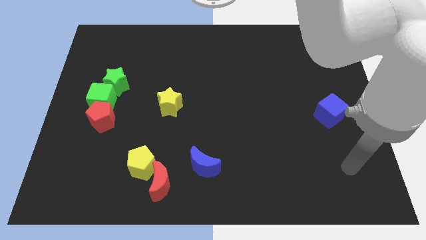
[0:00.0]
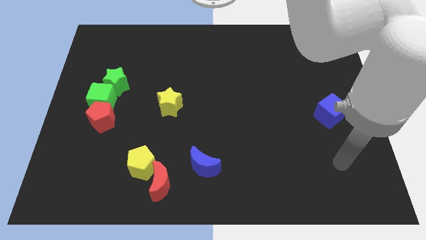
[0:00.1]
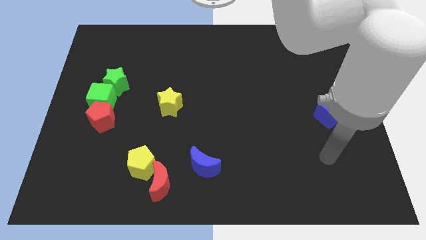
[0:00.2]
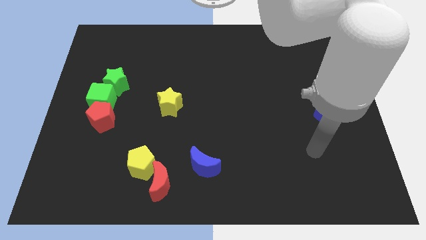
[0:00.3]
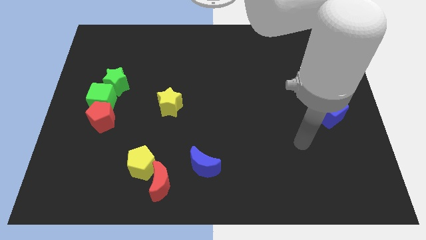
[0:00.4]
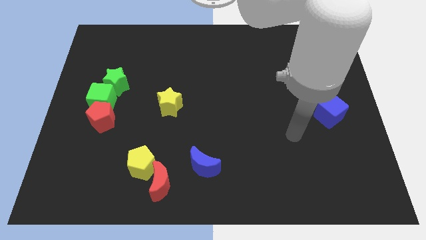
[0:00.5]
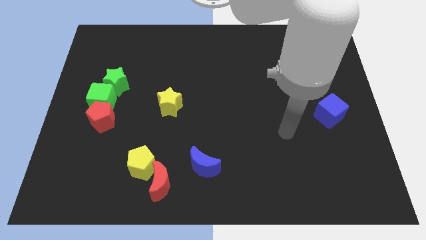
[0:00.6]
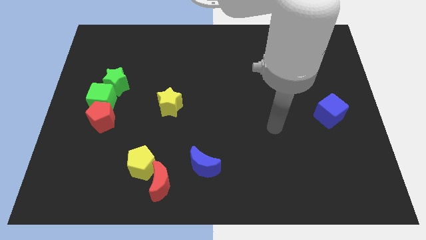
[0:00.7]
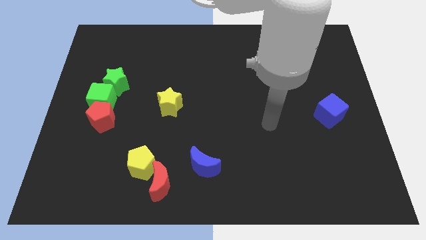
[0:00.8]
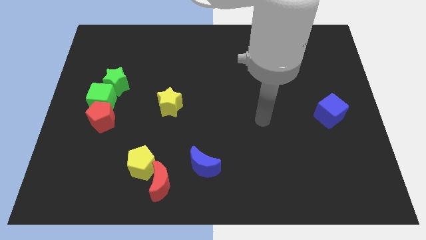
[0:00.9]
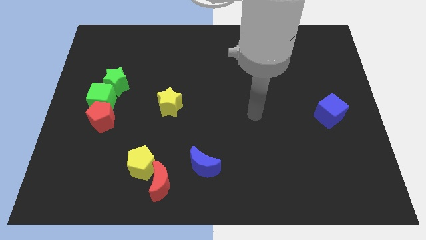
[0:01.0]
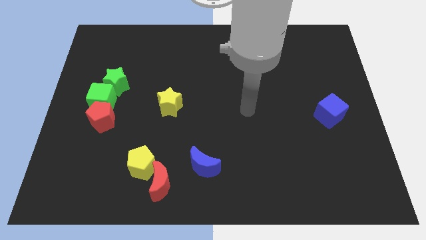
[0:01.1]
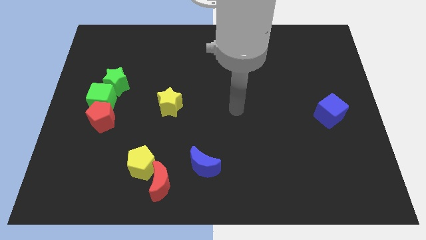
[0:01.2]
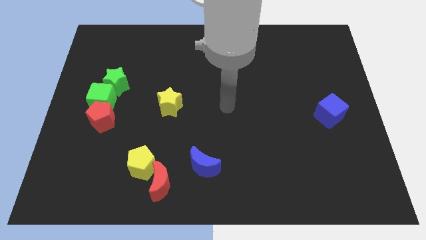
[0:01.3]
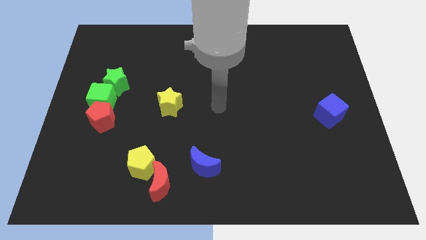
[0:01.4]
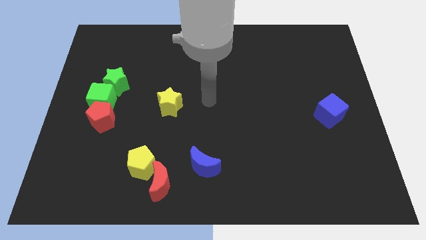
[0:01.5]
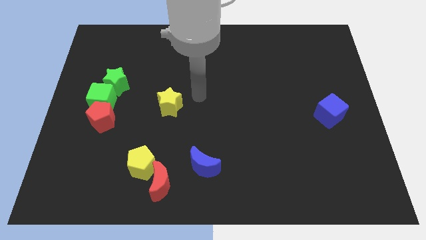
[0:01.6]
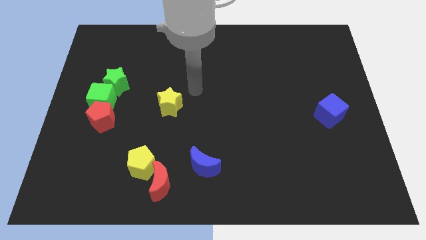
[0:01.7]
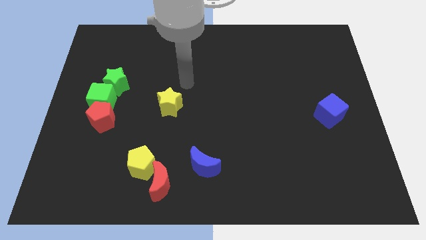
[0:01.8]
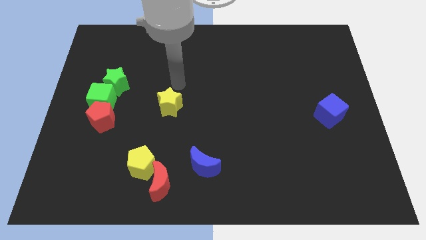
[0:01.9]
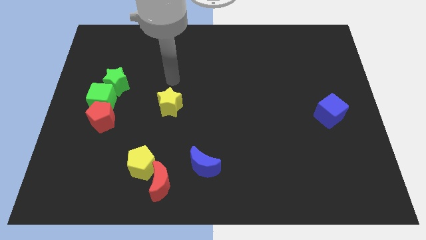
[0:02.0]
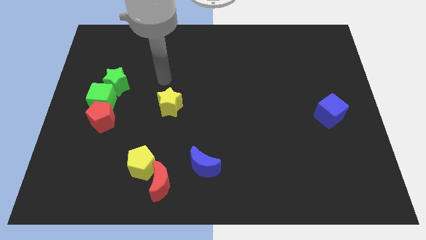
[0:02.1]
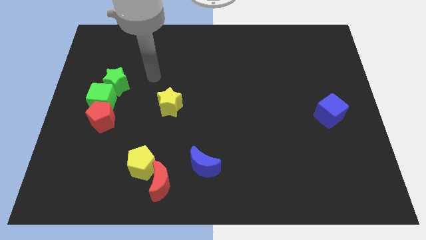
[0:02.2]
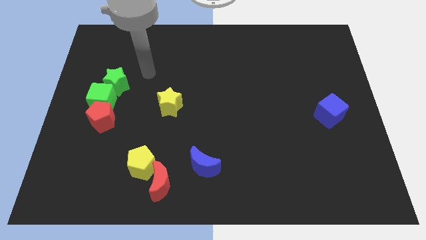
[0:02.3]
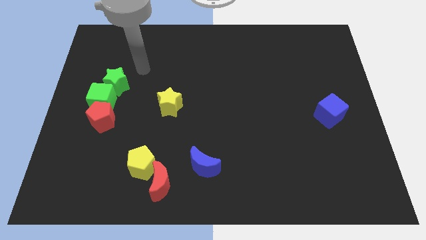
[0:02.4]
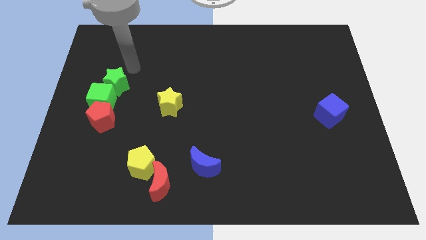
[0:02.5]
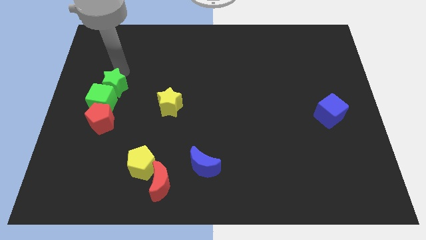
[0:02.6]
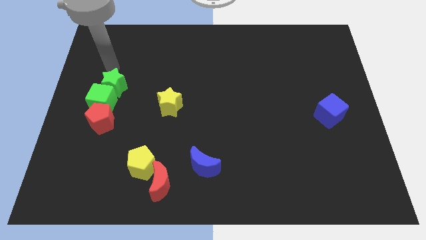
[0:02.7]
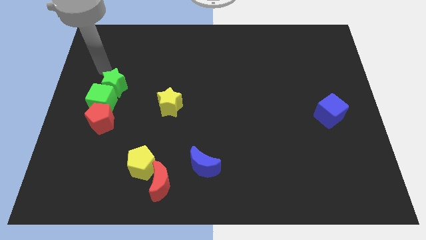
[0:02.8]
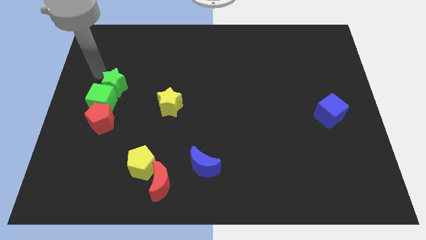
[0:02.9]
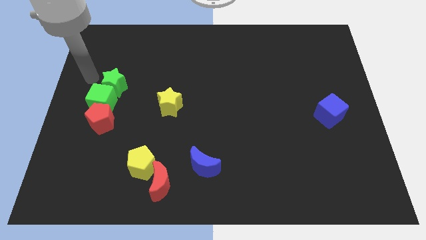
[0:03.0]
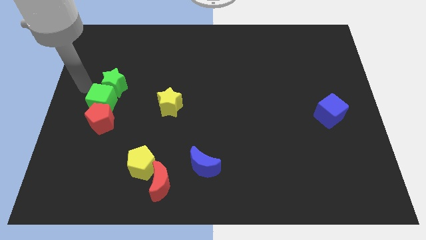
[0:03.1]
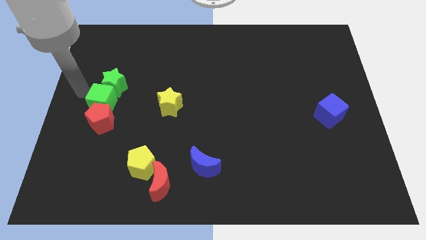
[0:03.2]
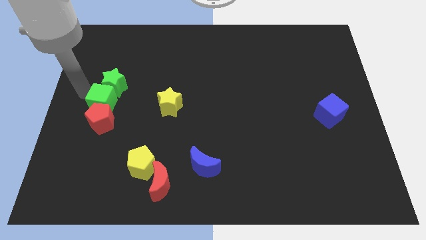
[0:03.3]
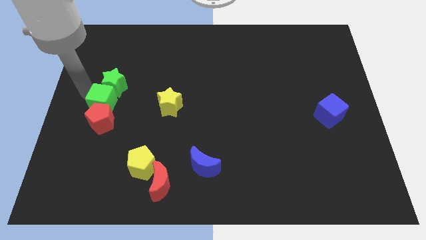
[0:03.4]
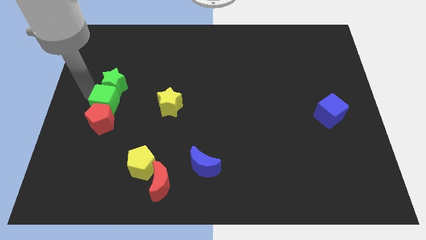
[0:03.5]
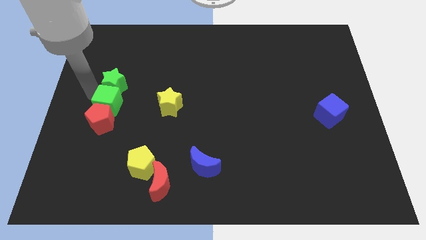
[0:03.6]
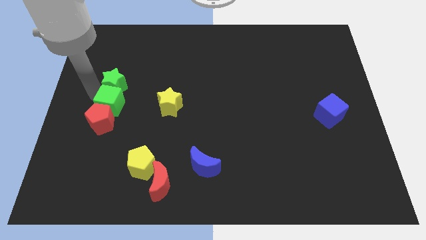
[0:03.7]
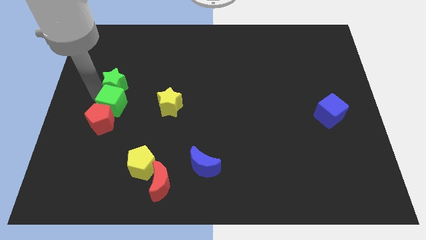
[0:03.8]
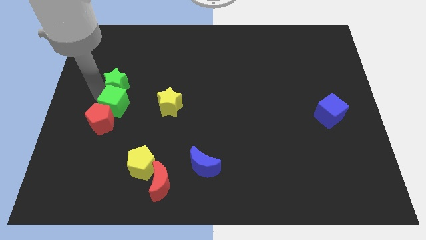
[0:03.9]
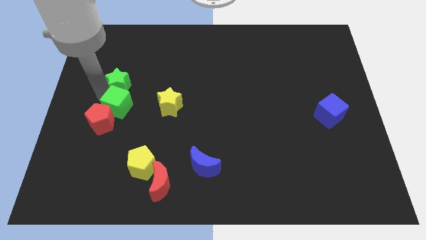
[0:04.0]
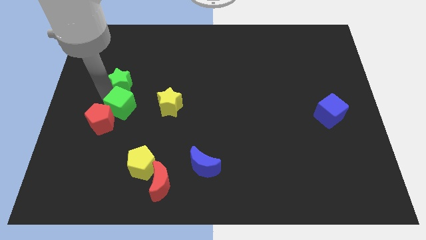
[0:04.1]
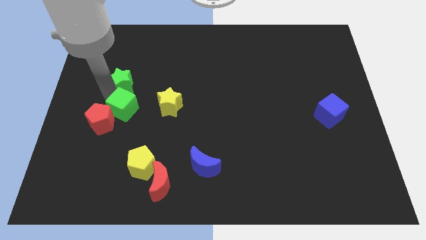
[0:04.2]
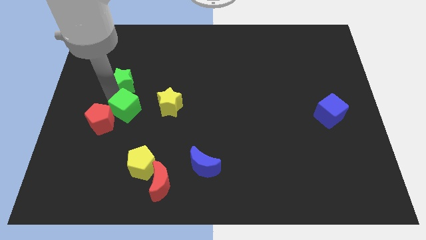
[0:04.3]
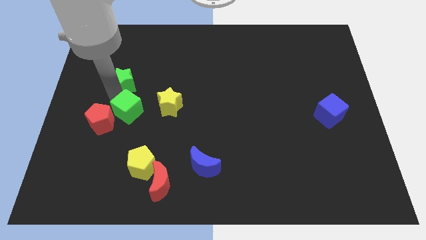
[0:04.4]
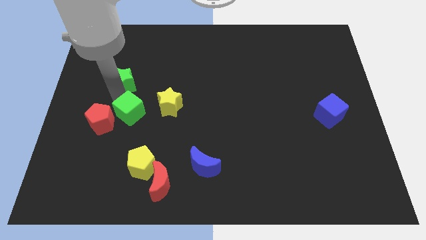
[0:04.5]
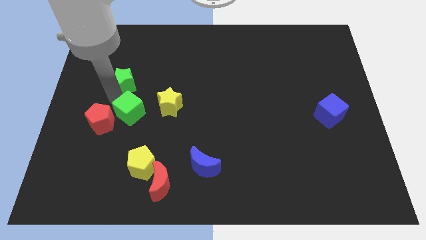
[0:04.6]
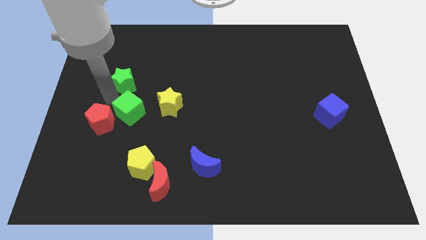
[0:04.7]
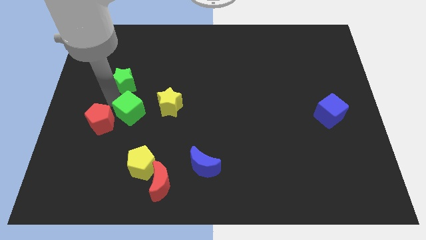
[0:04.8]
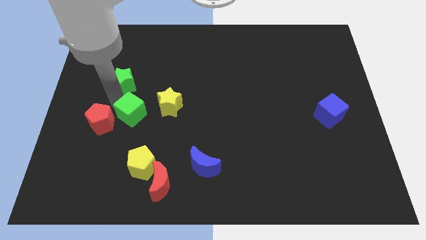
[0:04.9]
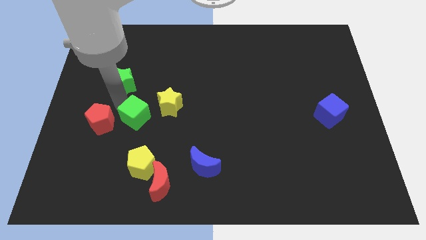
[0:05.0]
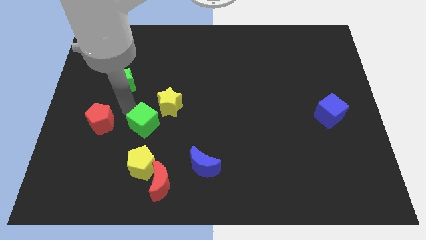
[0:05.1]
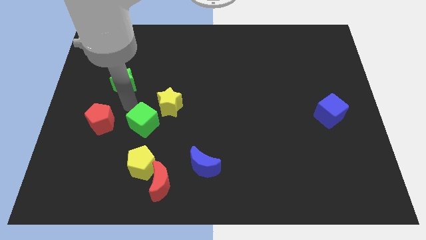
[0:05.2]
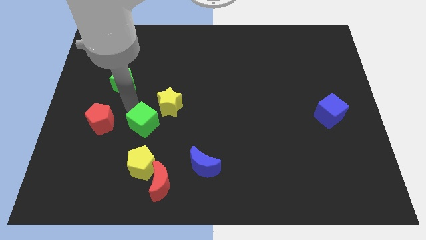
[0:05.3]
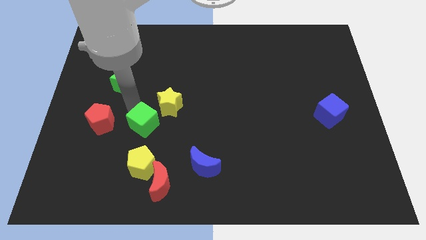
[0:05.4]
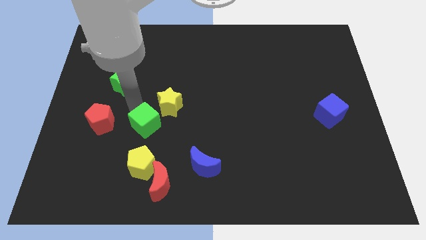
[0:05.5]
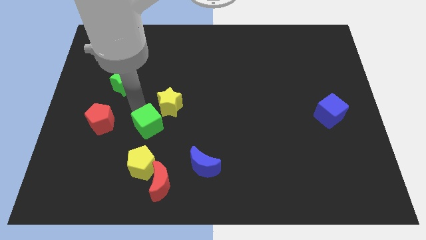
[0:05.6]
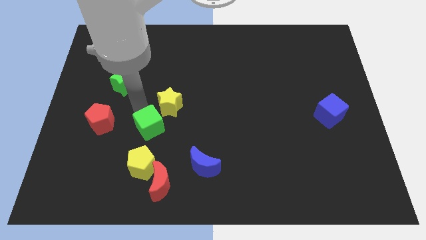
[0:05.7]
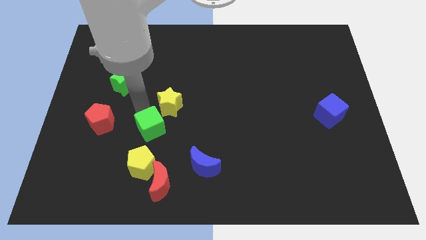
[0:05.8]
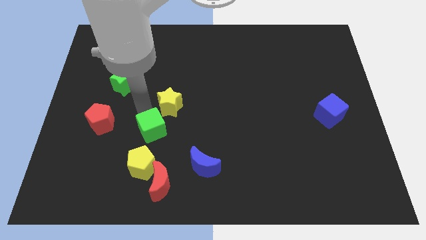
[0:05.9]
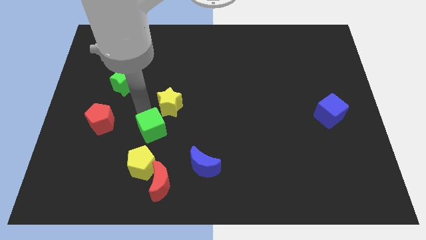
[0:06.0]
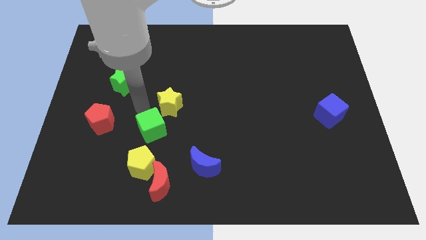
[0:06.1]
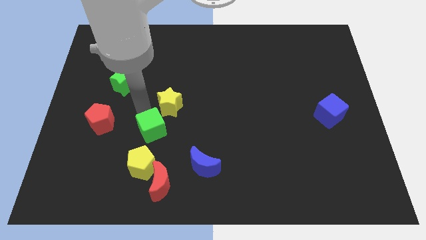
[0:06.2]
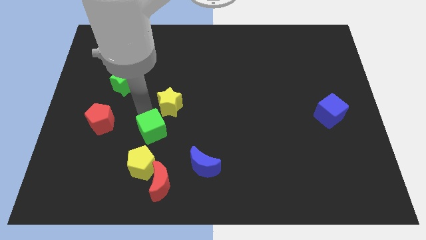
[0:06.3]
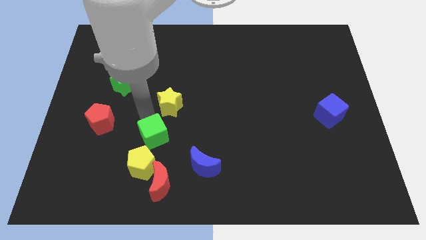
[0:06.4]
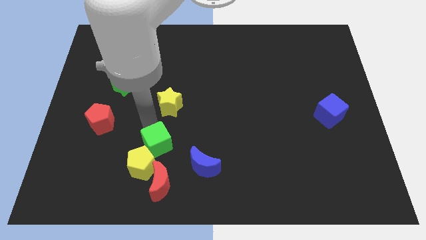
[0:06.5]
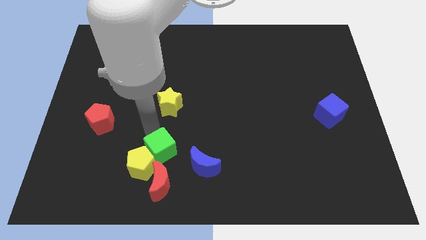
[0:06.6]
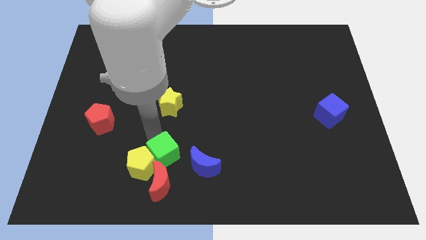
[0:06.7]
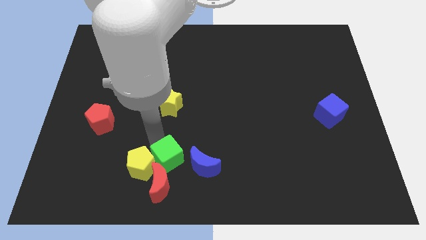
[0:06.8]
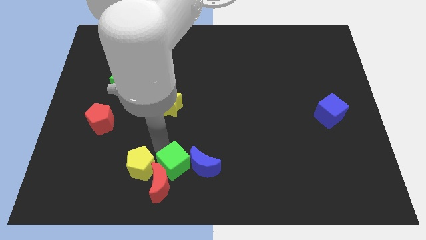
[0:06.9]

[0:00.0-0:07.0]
put the green cube to the bottom
